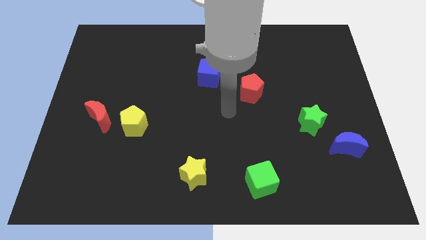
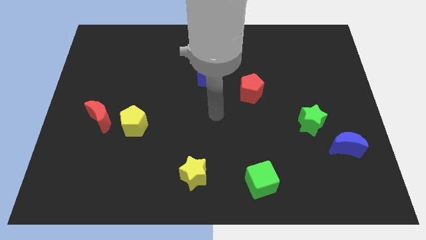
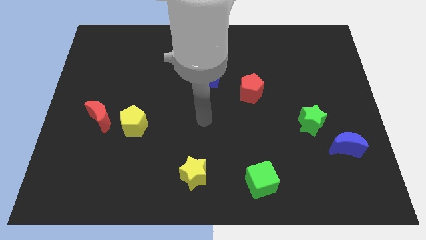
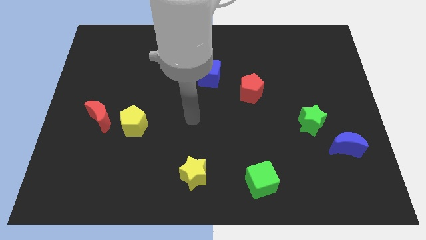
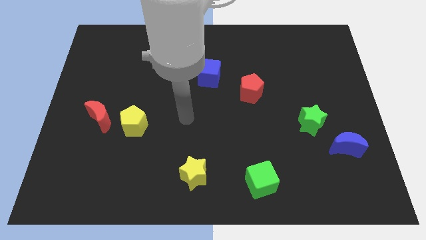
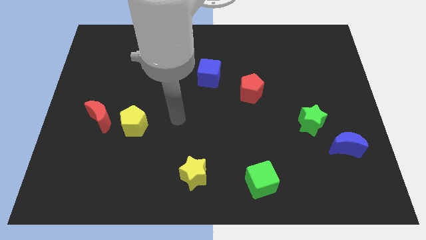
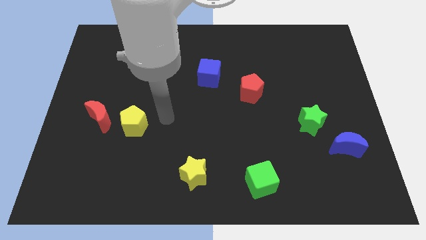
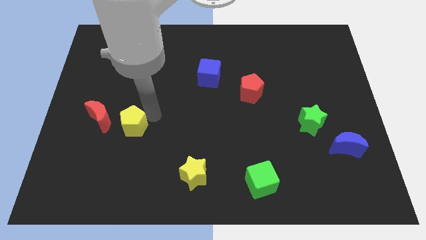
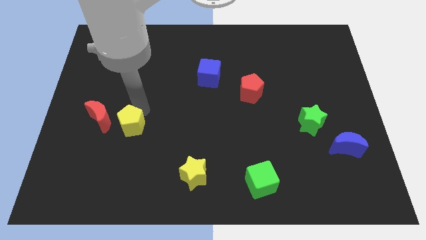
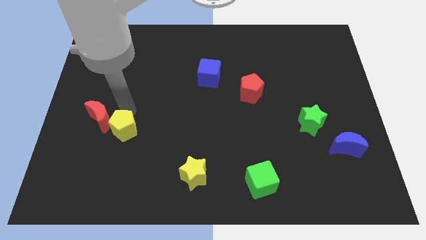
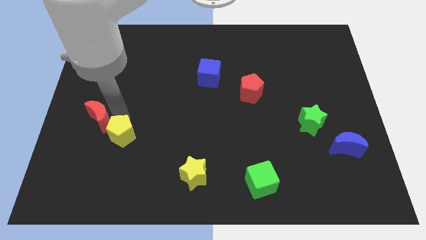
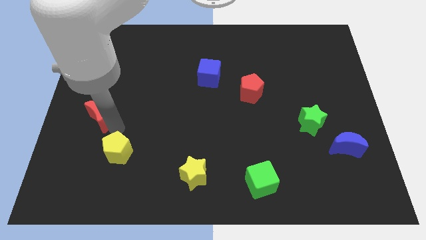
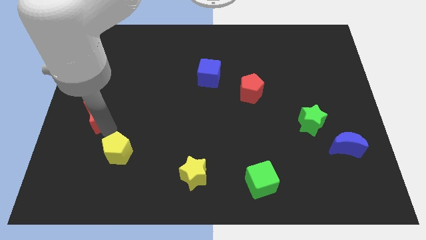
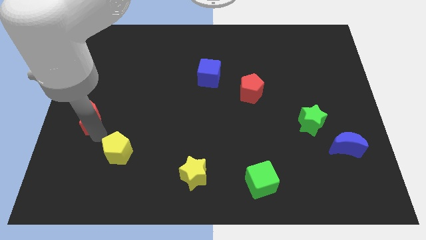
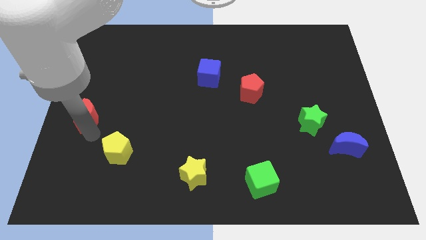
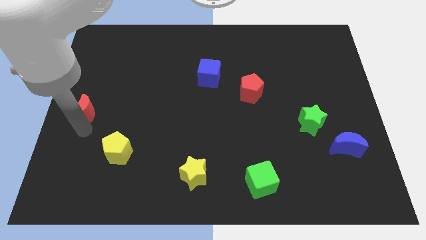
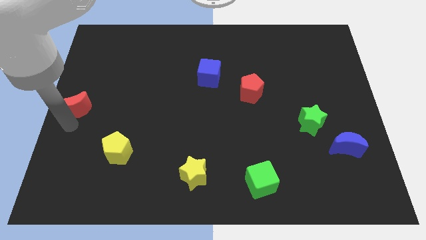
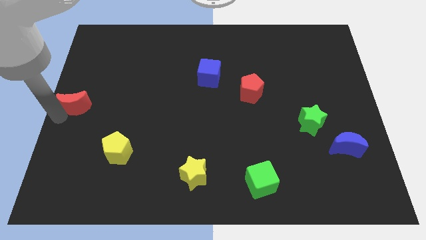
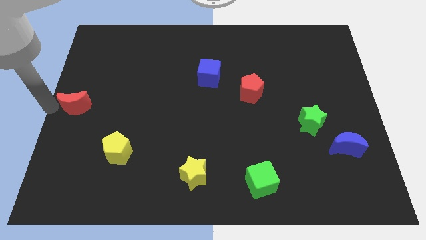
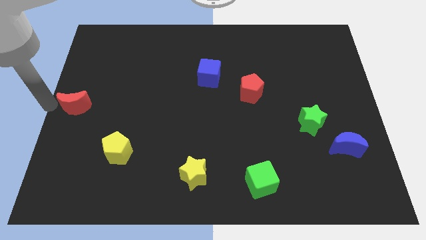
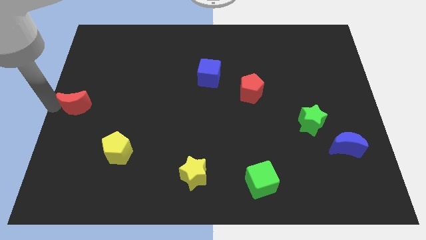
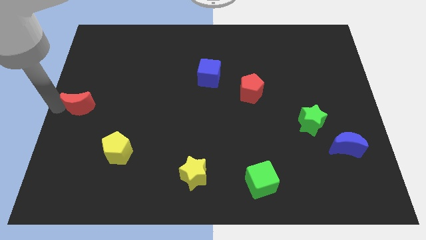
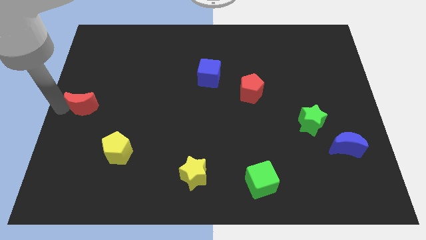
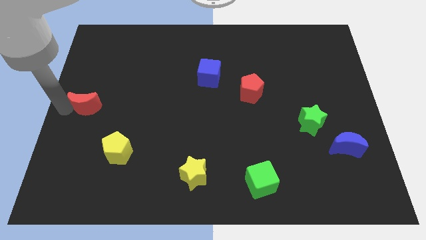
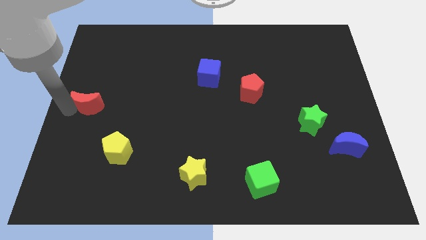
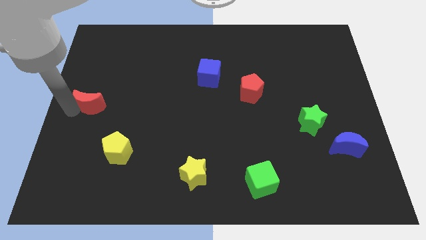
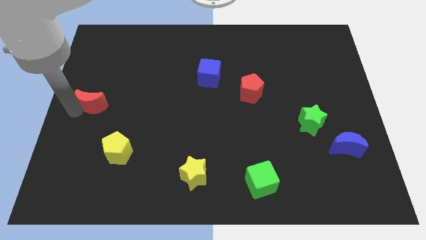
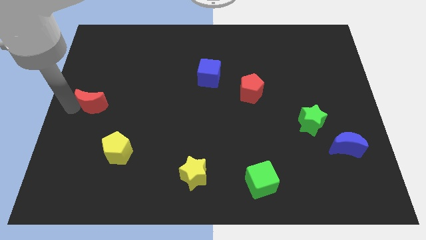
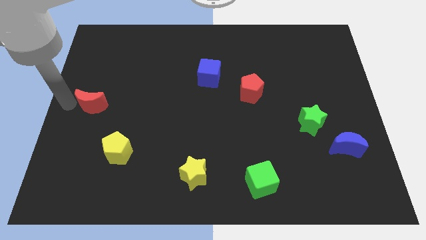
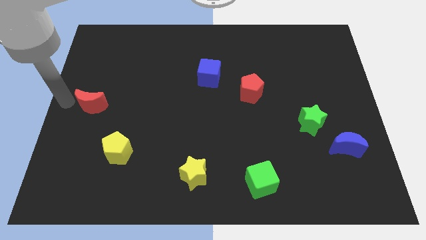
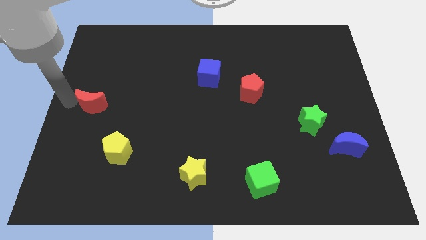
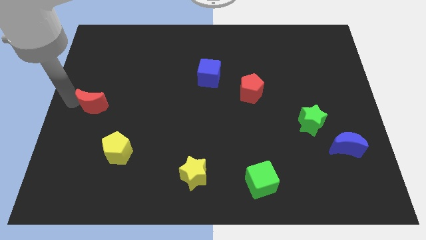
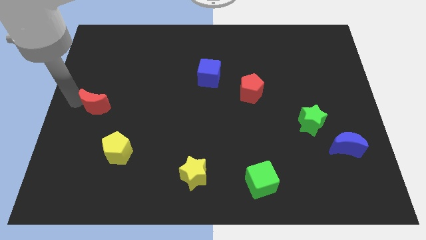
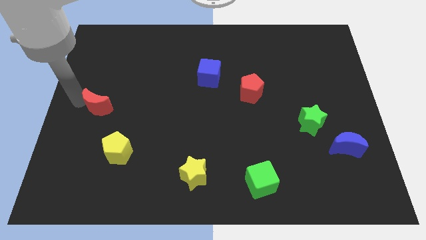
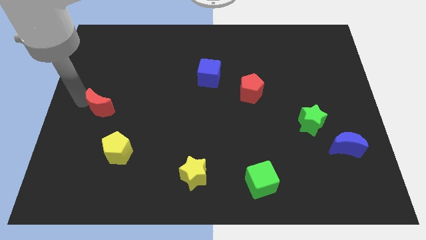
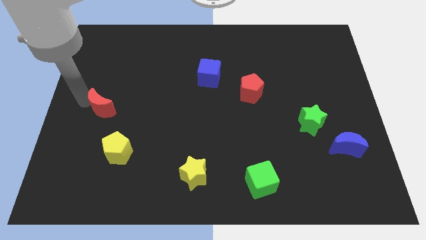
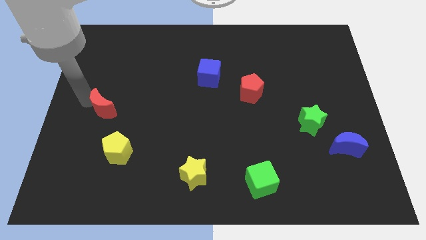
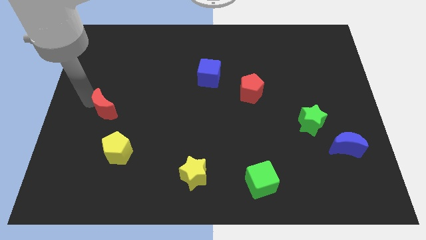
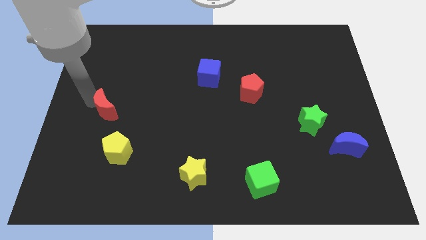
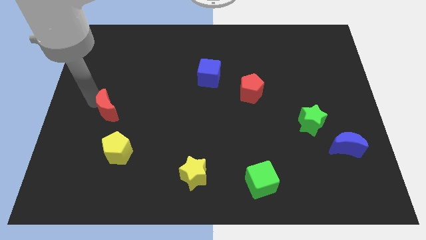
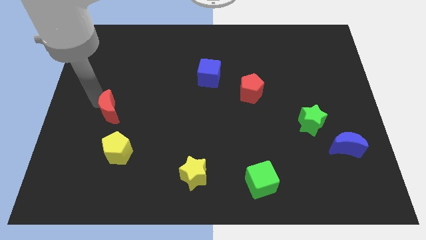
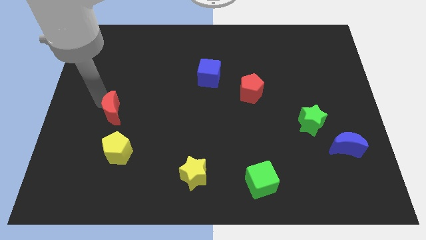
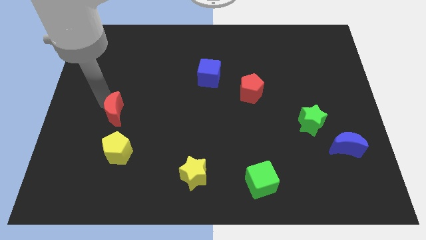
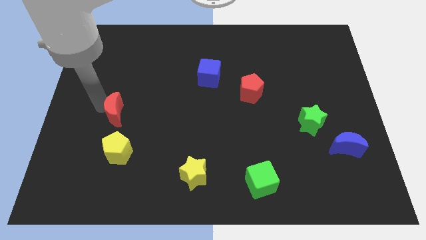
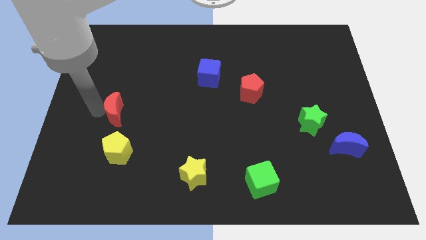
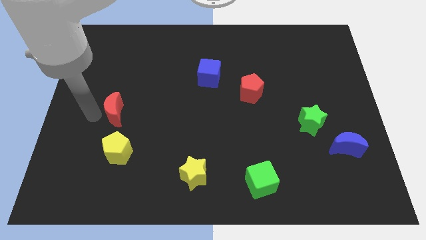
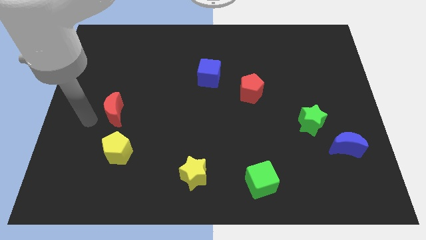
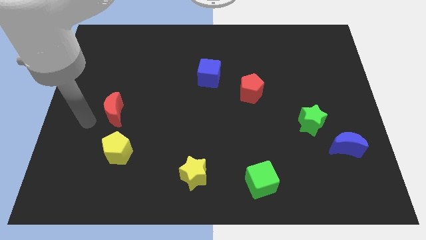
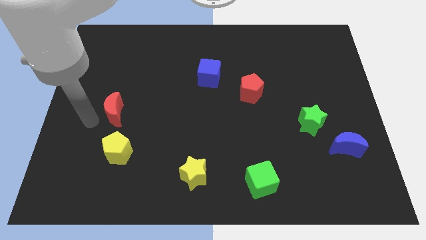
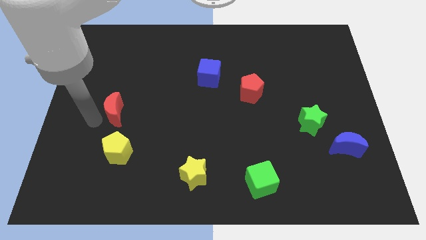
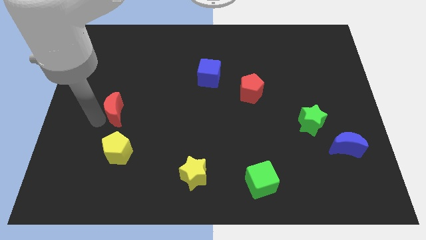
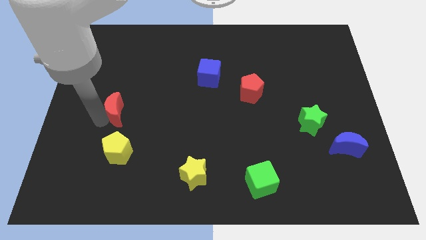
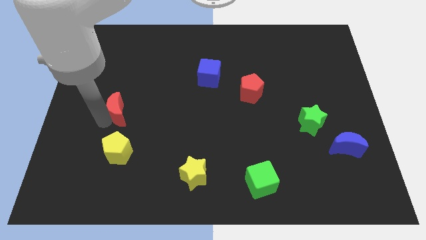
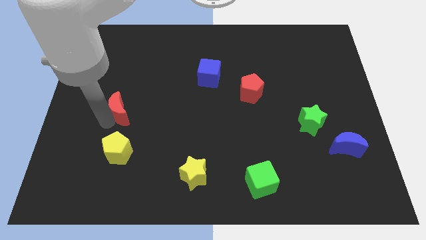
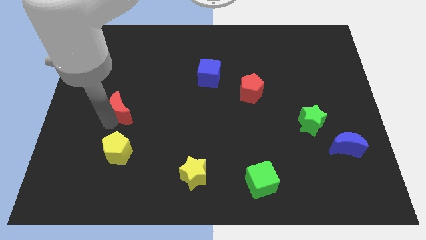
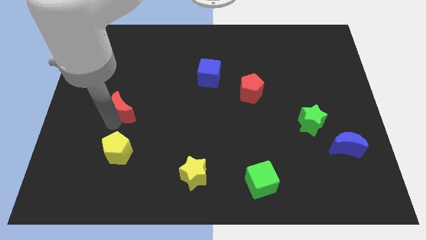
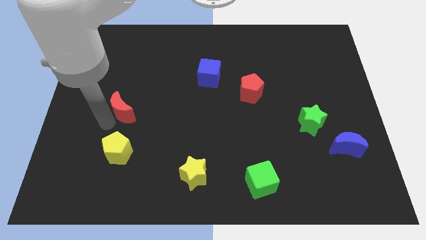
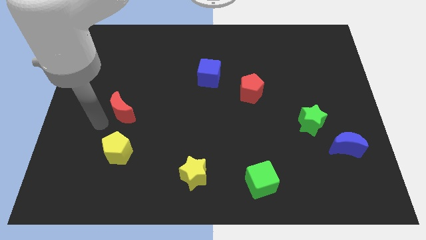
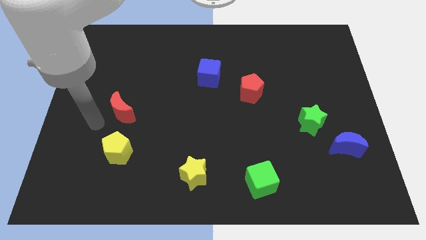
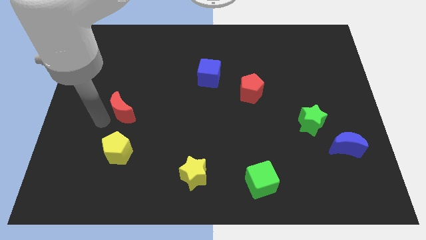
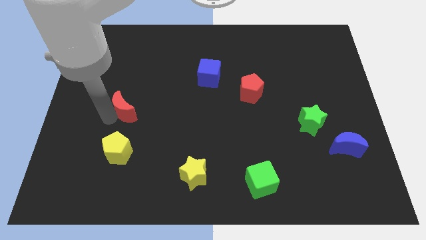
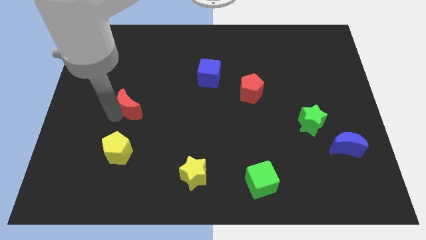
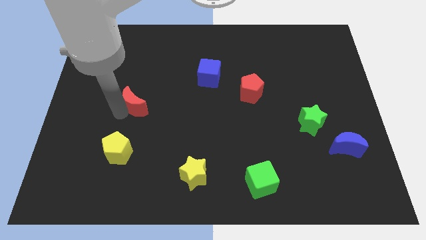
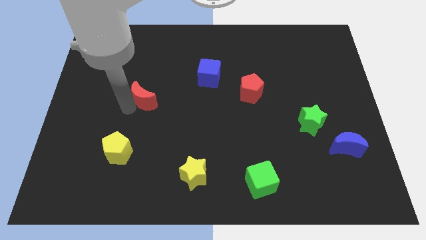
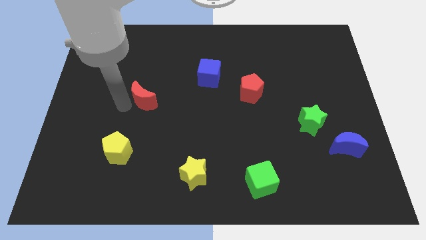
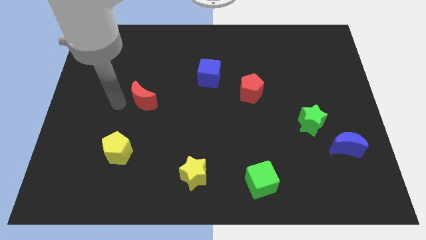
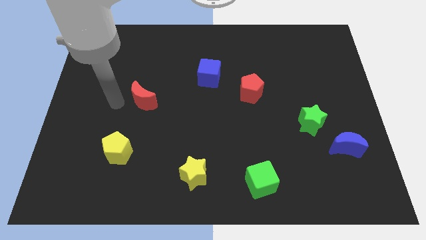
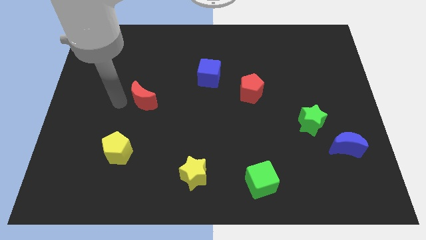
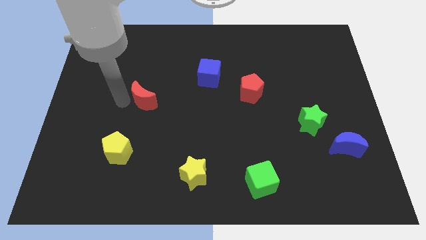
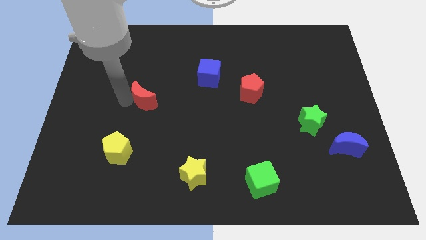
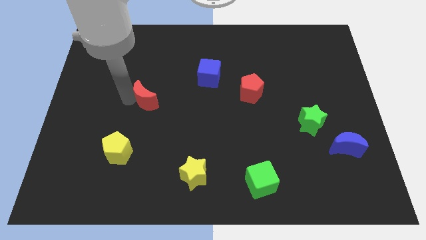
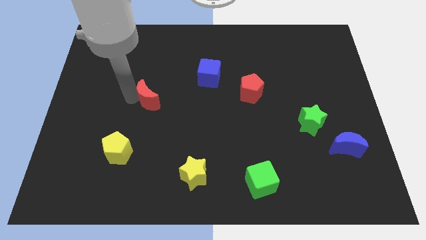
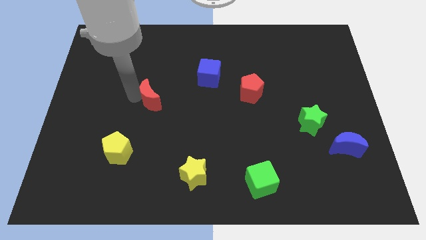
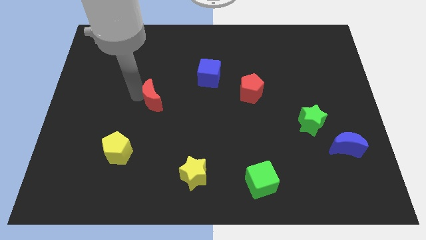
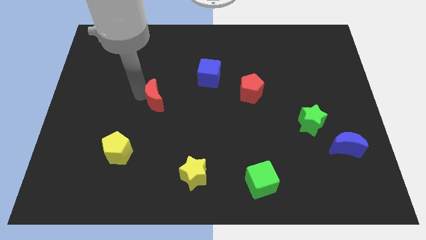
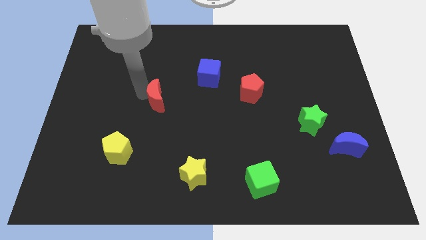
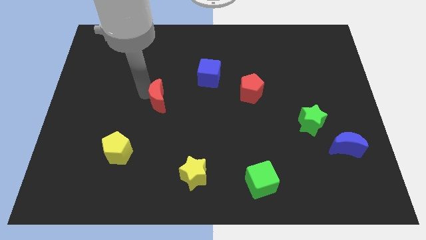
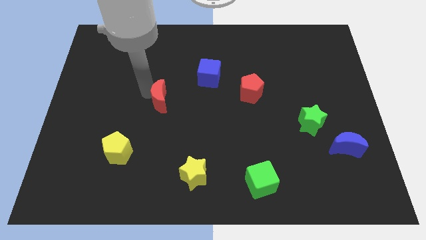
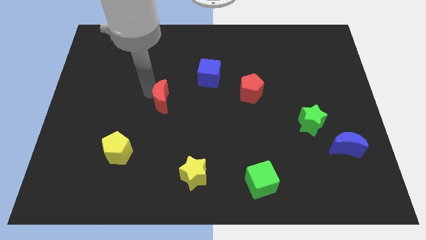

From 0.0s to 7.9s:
push the red moon to the center of the board
